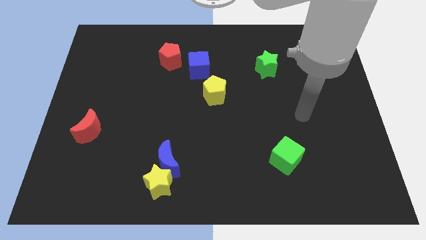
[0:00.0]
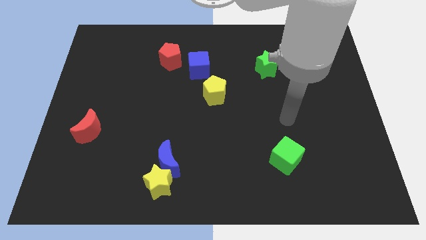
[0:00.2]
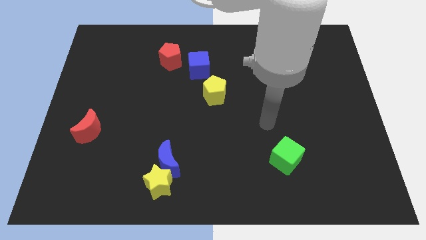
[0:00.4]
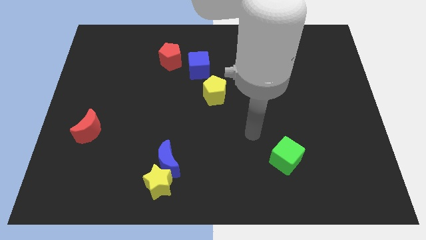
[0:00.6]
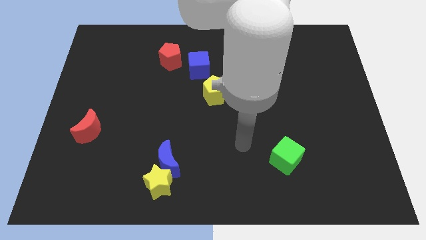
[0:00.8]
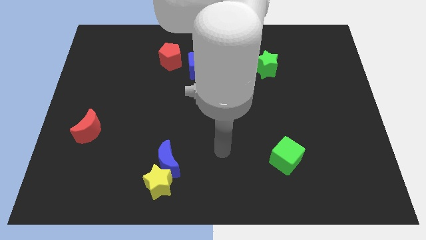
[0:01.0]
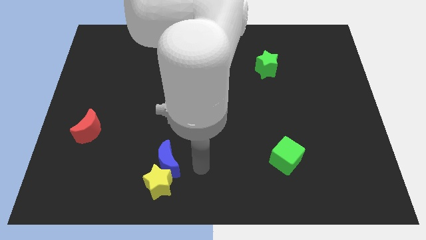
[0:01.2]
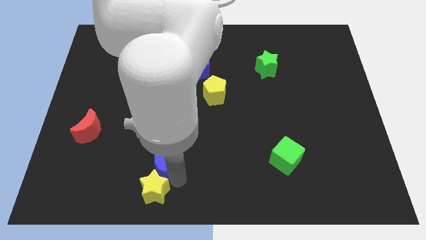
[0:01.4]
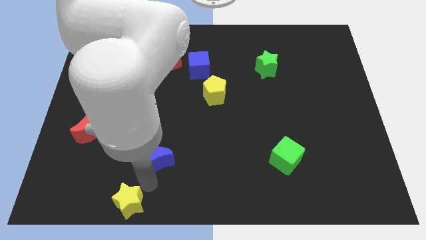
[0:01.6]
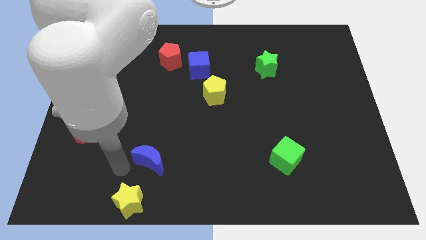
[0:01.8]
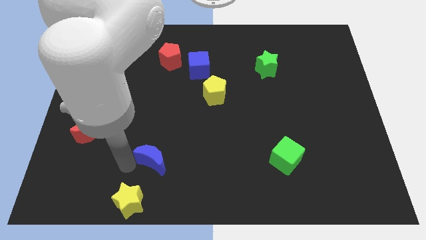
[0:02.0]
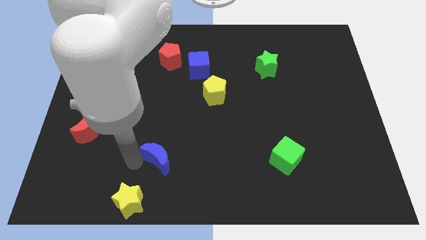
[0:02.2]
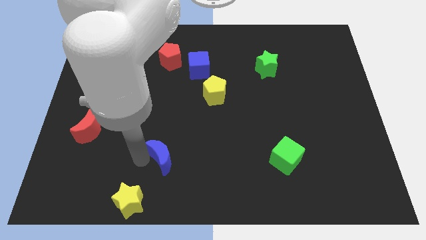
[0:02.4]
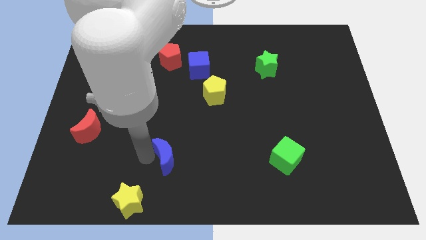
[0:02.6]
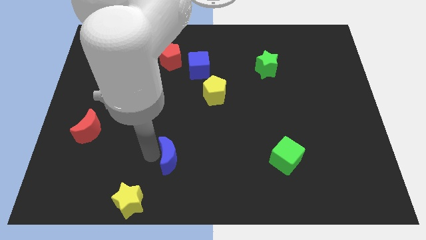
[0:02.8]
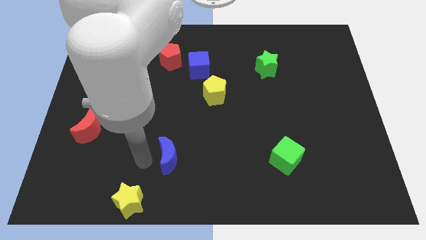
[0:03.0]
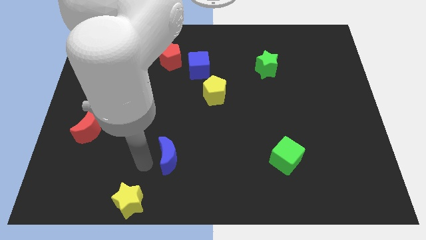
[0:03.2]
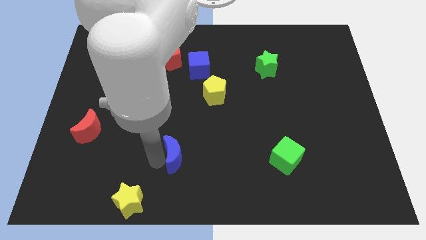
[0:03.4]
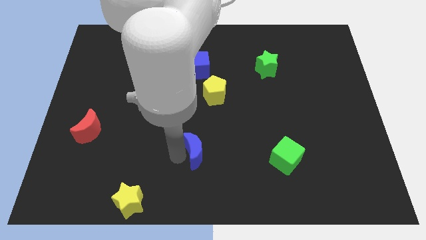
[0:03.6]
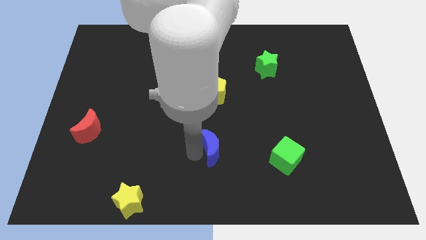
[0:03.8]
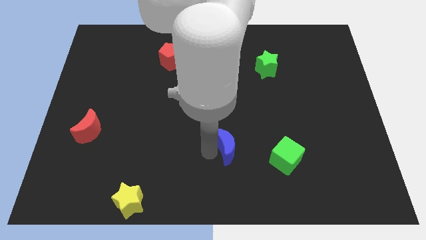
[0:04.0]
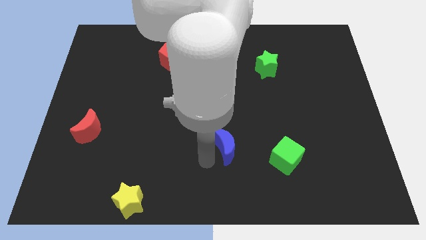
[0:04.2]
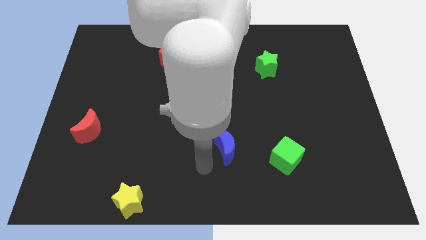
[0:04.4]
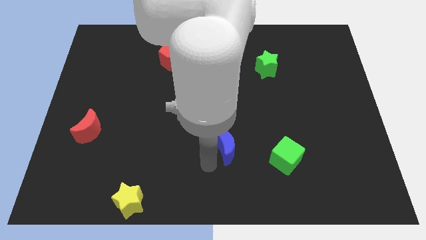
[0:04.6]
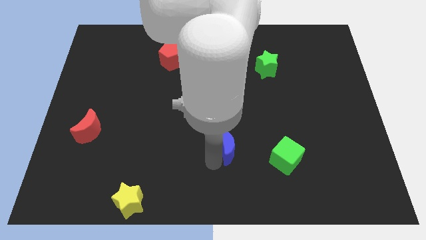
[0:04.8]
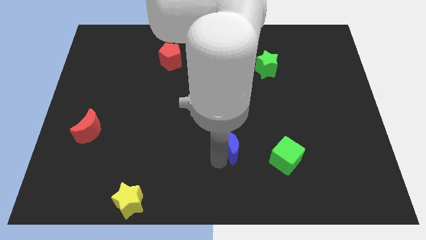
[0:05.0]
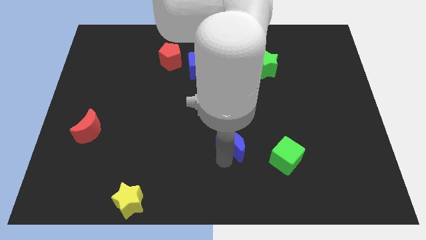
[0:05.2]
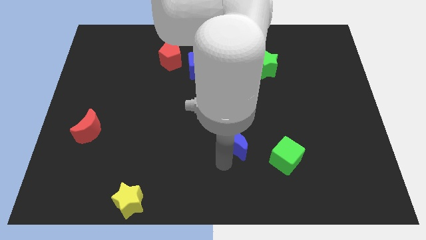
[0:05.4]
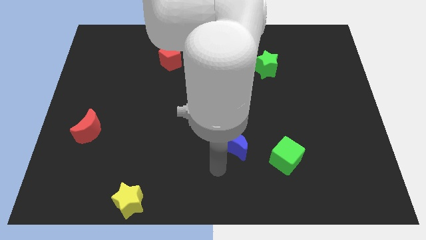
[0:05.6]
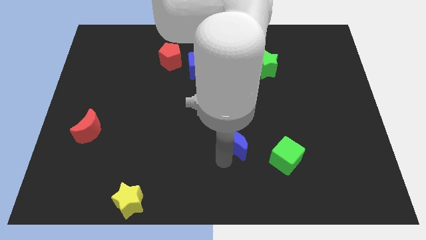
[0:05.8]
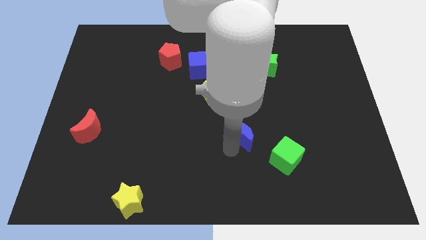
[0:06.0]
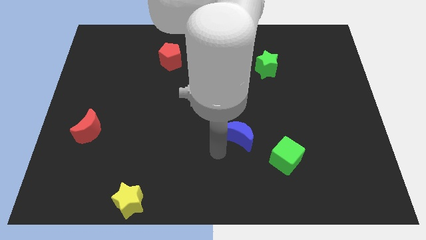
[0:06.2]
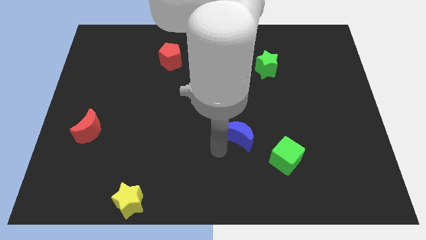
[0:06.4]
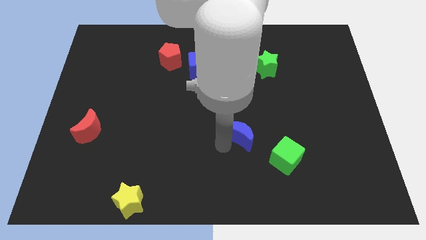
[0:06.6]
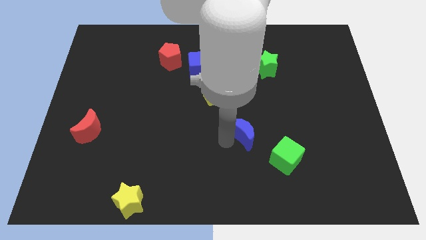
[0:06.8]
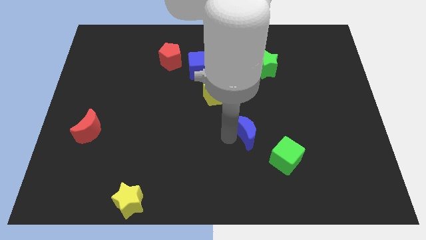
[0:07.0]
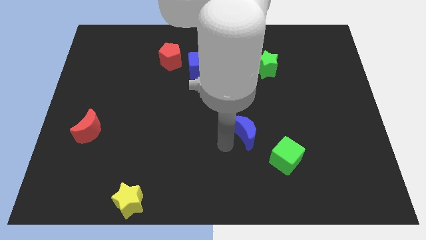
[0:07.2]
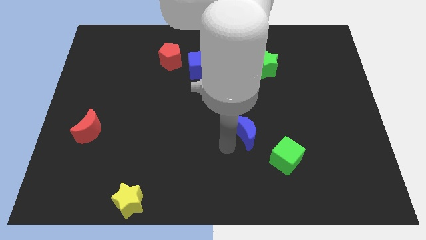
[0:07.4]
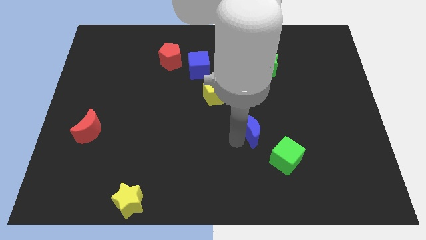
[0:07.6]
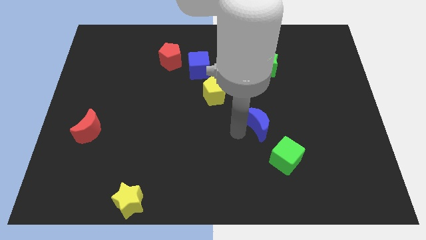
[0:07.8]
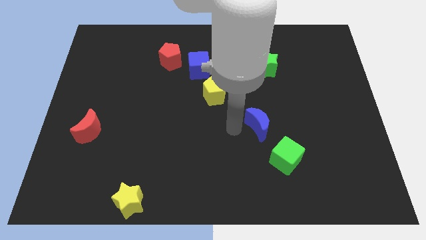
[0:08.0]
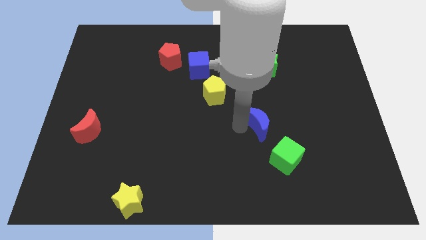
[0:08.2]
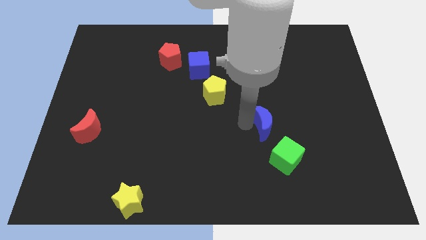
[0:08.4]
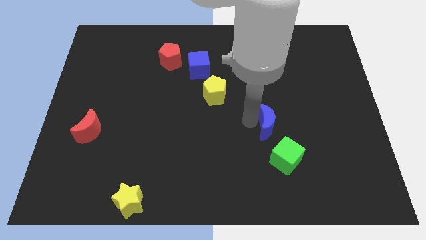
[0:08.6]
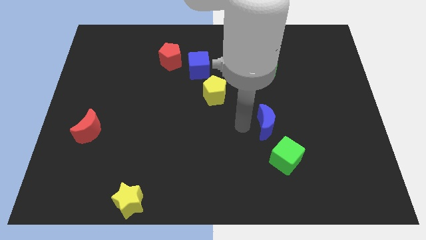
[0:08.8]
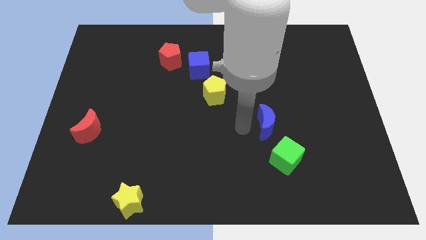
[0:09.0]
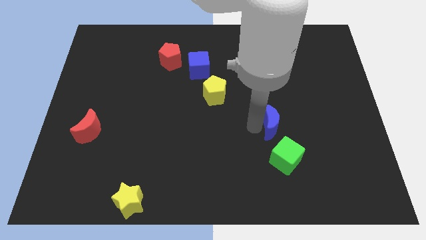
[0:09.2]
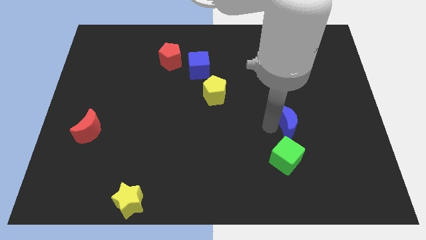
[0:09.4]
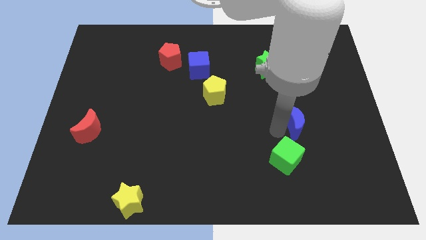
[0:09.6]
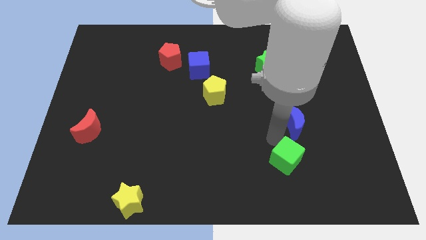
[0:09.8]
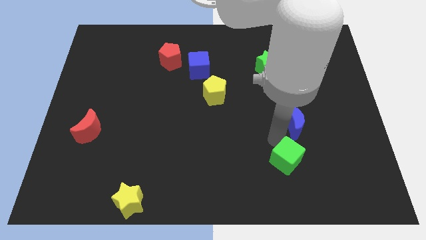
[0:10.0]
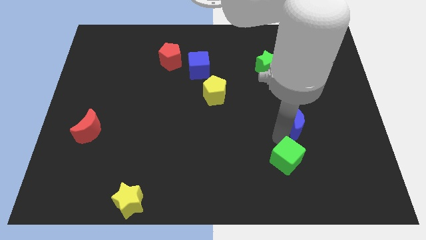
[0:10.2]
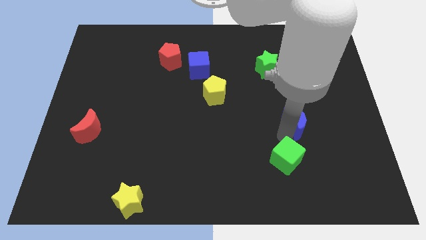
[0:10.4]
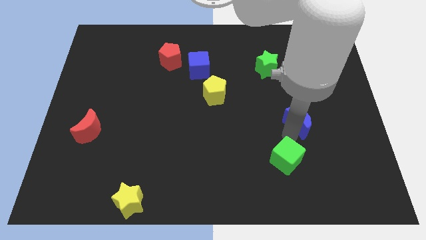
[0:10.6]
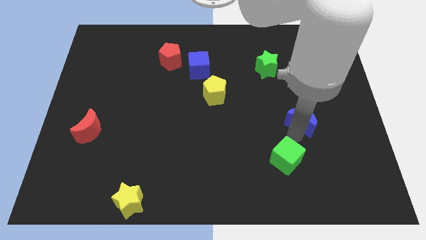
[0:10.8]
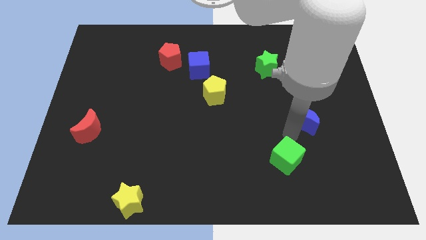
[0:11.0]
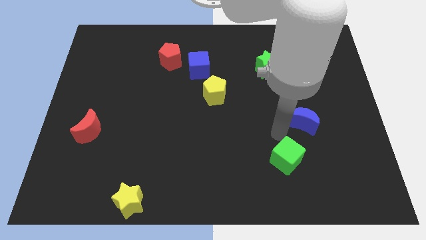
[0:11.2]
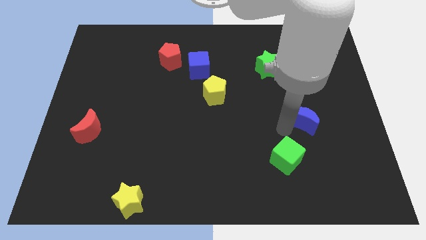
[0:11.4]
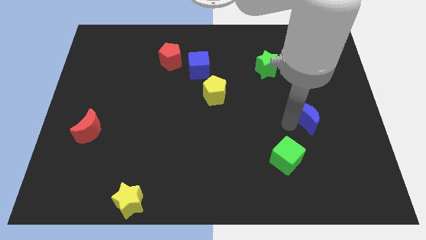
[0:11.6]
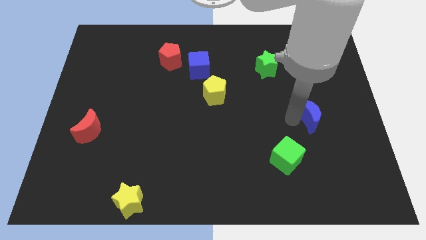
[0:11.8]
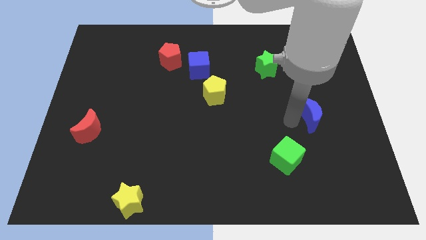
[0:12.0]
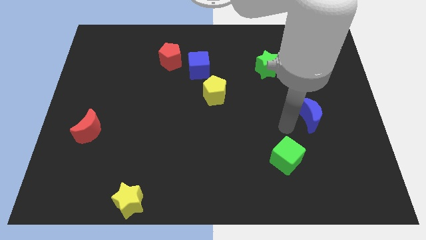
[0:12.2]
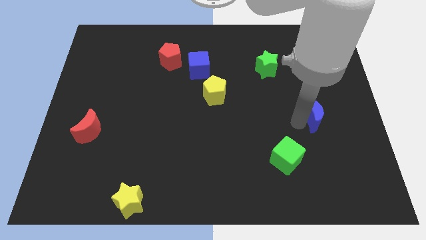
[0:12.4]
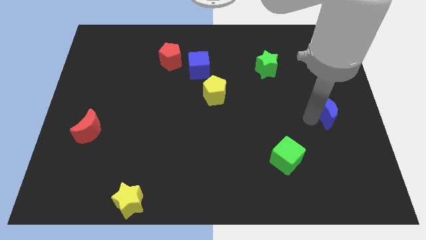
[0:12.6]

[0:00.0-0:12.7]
push the blue moon to the center right
